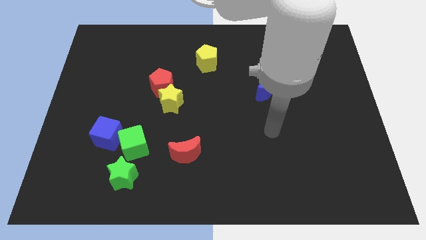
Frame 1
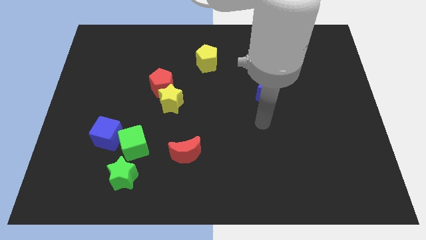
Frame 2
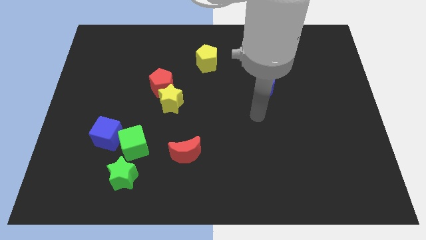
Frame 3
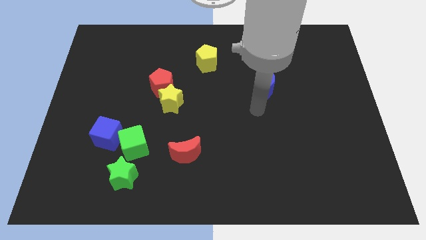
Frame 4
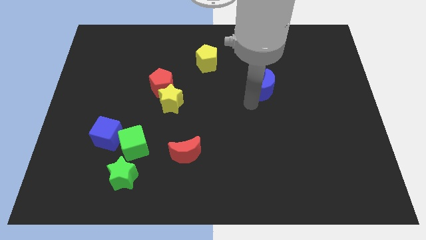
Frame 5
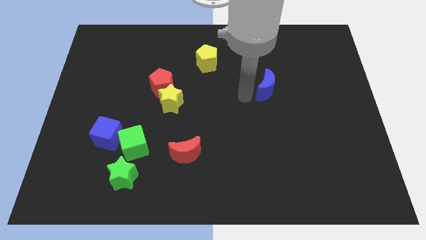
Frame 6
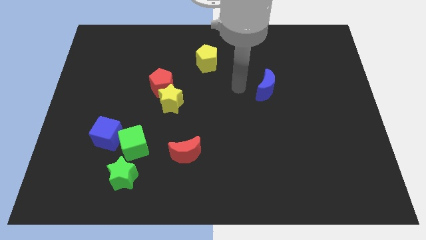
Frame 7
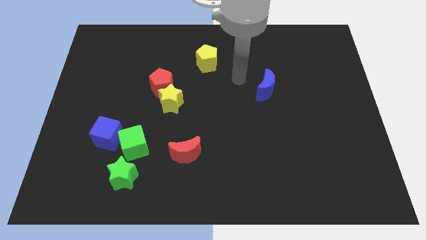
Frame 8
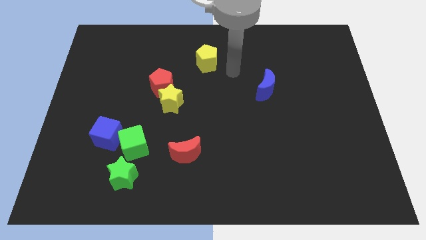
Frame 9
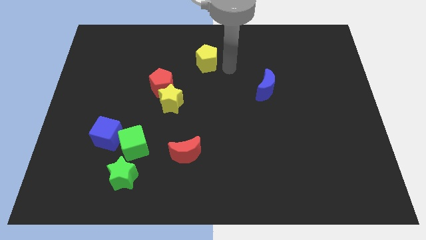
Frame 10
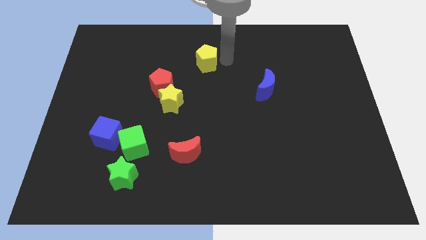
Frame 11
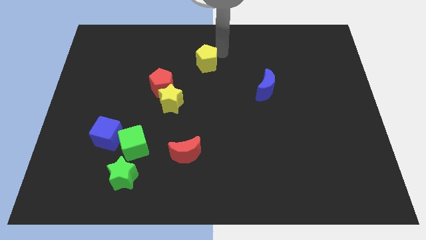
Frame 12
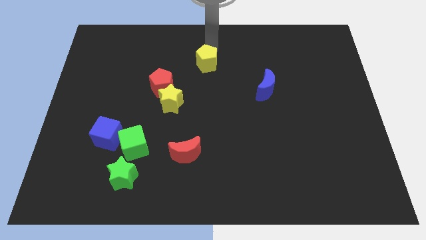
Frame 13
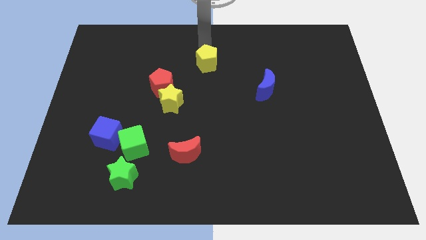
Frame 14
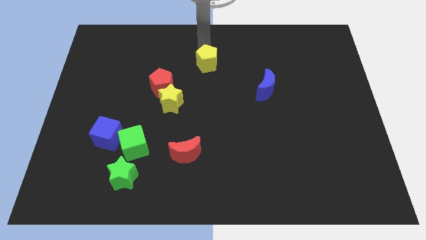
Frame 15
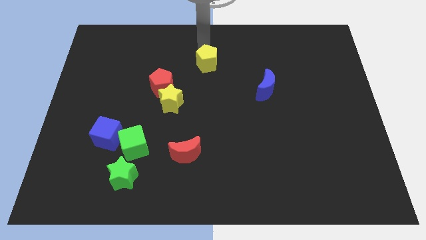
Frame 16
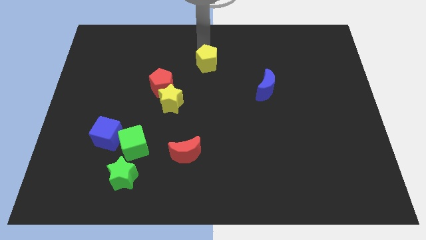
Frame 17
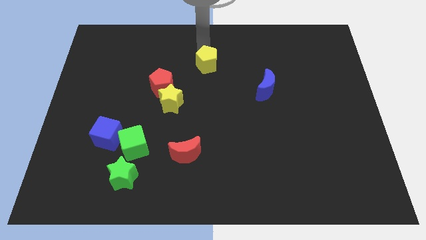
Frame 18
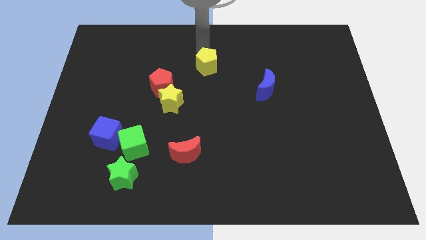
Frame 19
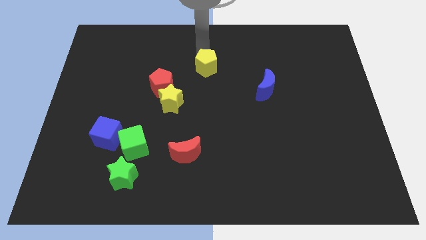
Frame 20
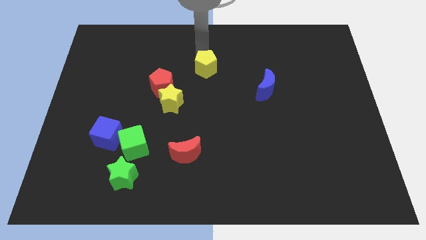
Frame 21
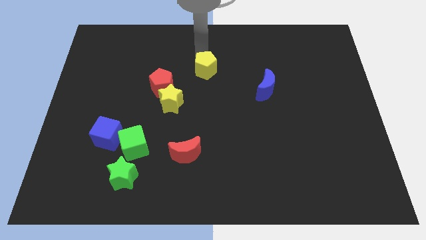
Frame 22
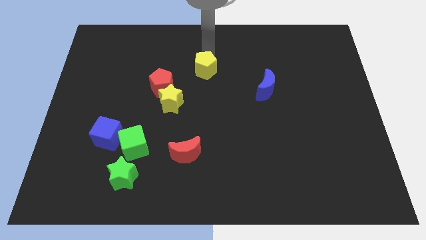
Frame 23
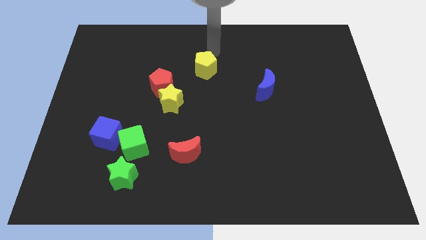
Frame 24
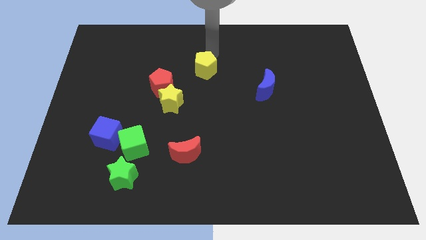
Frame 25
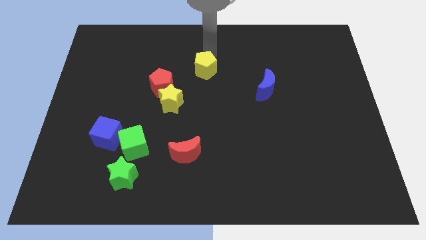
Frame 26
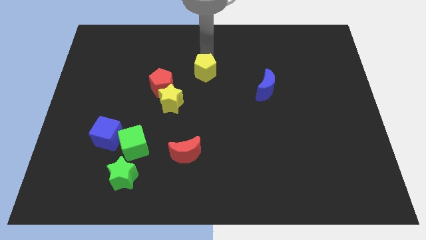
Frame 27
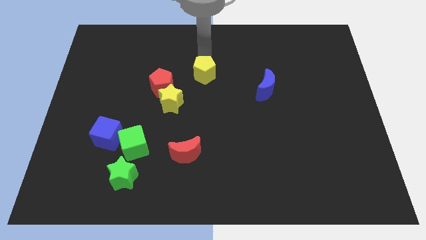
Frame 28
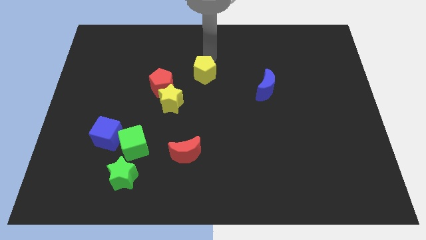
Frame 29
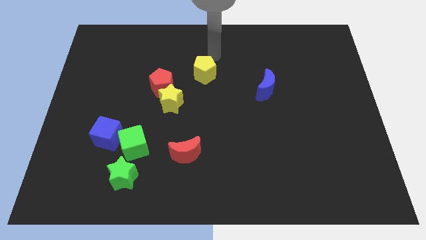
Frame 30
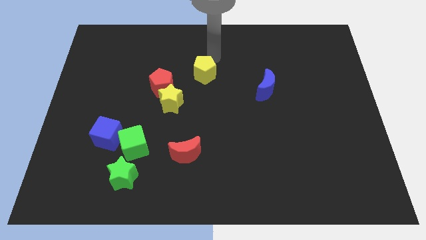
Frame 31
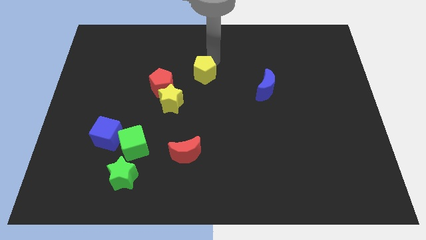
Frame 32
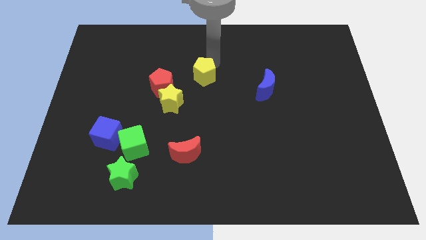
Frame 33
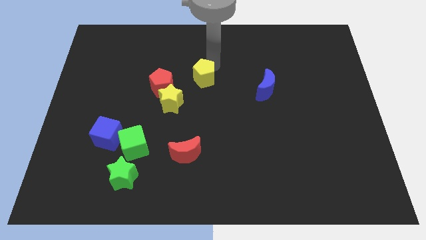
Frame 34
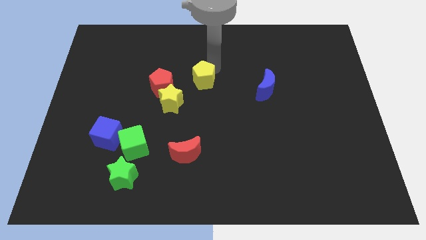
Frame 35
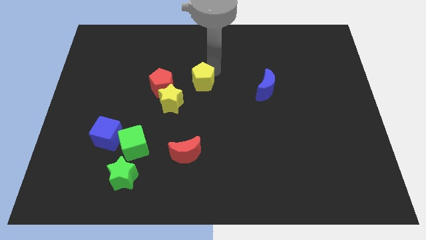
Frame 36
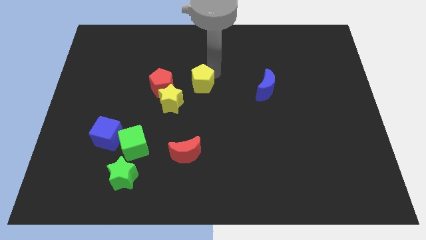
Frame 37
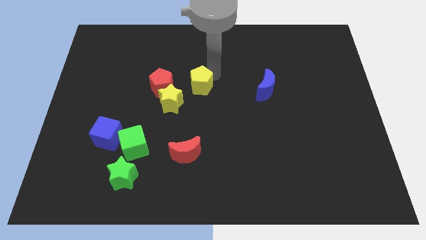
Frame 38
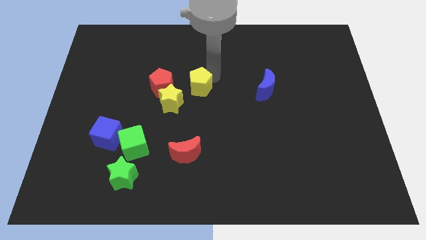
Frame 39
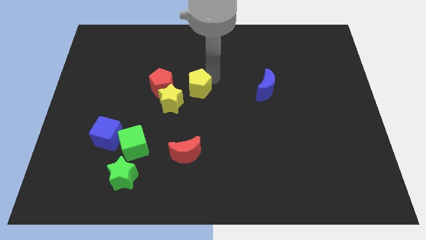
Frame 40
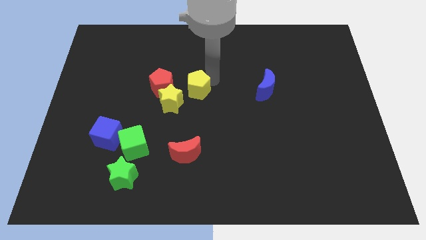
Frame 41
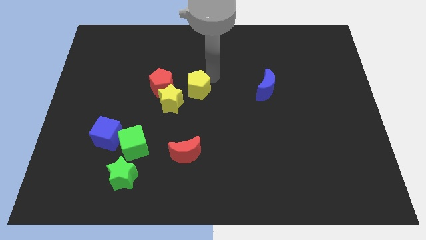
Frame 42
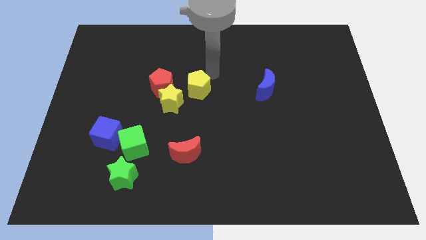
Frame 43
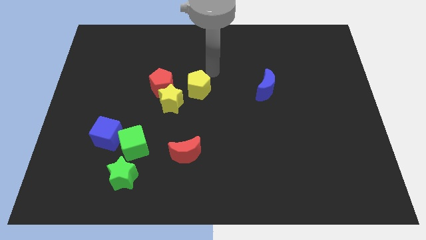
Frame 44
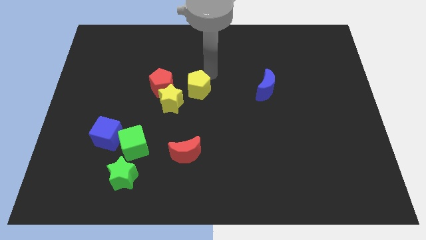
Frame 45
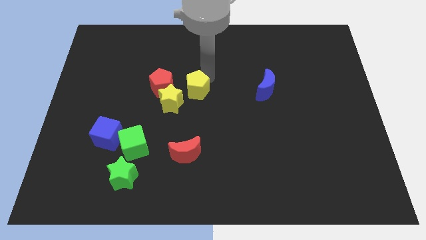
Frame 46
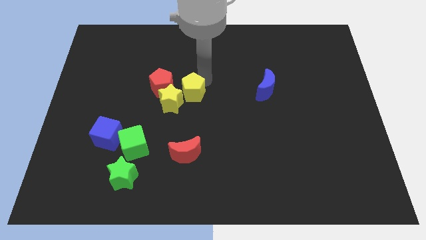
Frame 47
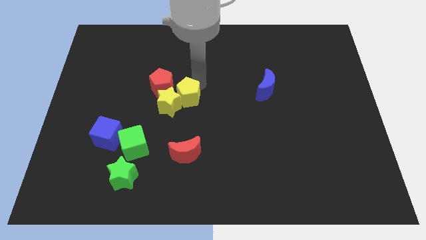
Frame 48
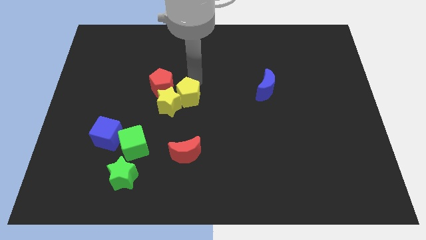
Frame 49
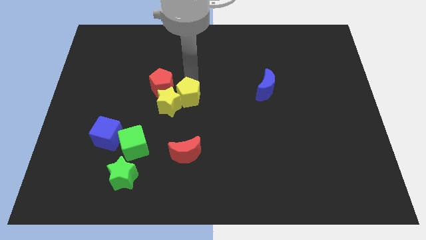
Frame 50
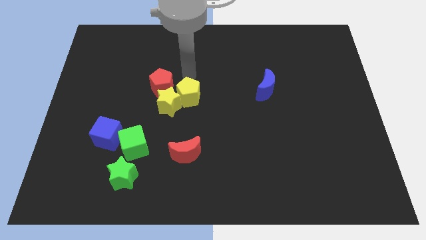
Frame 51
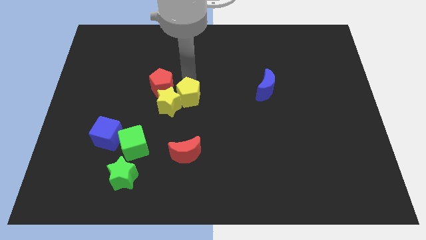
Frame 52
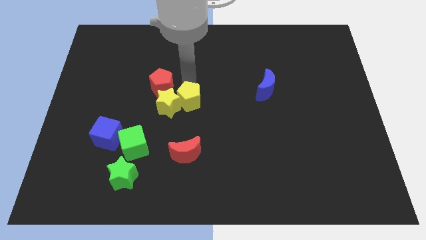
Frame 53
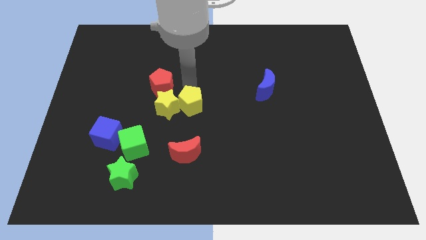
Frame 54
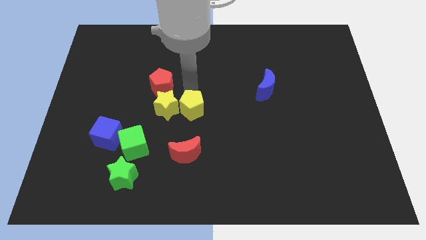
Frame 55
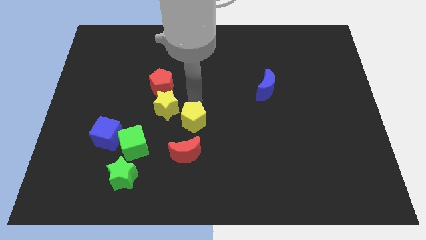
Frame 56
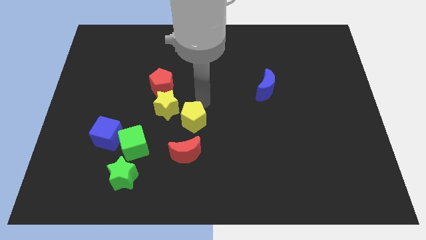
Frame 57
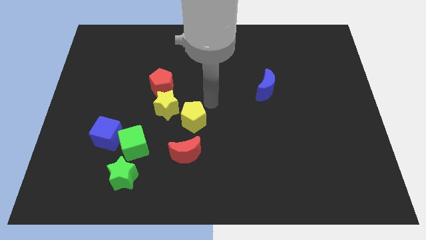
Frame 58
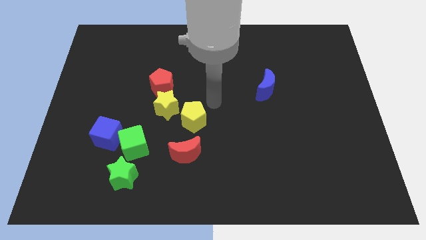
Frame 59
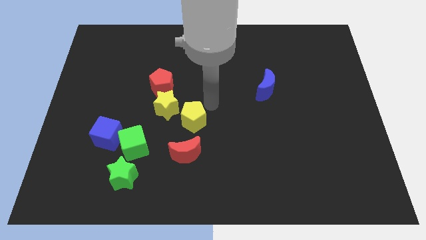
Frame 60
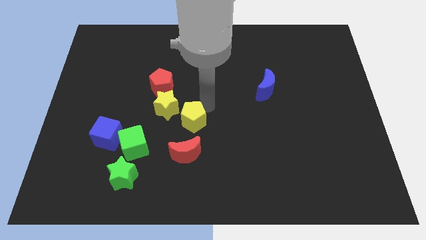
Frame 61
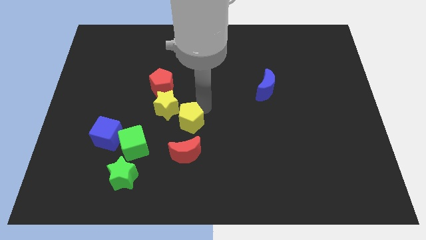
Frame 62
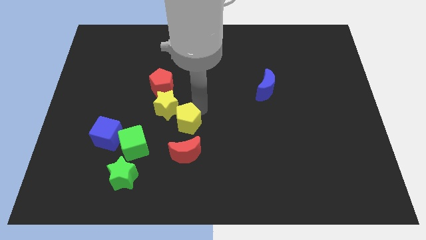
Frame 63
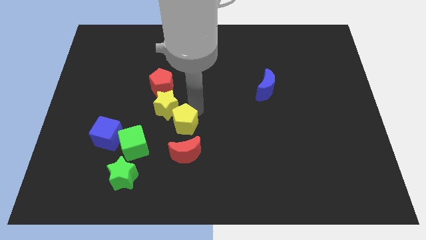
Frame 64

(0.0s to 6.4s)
push the yellow pentagon below the yellow star

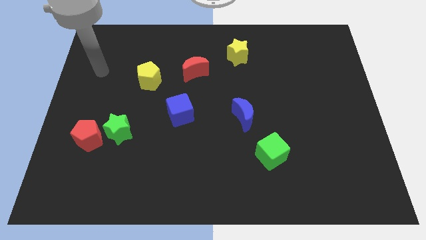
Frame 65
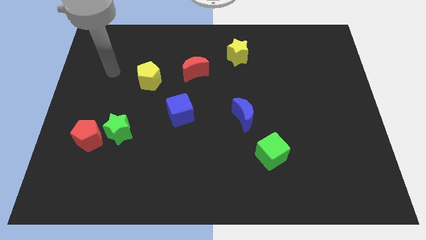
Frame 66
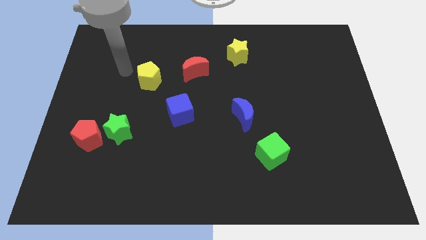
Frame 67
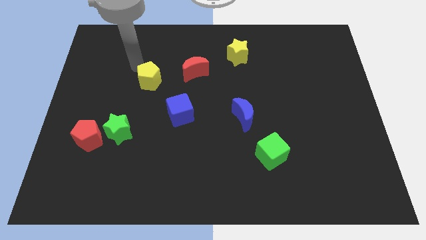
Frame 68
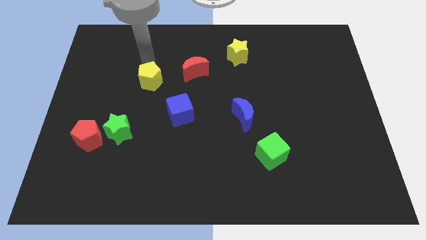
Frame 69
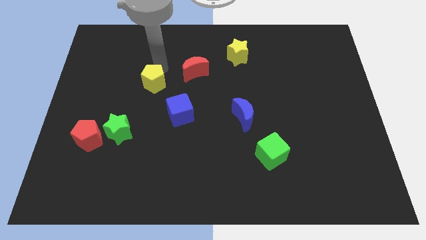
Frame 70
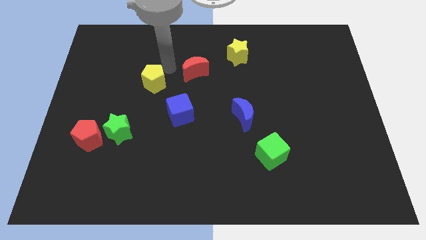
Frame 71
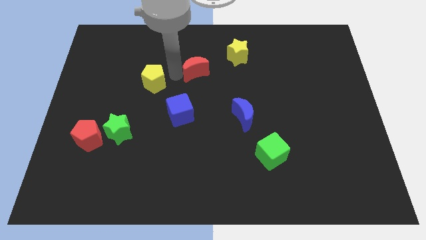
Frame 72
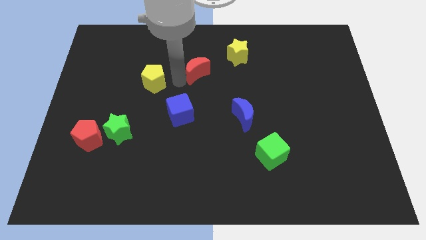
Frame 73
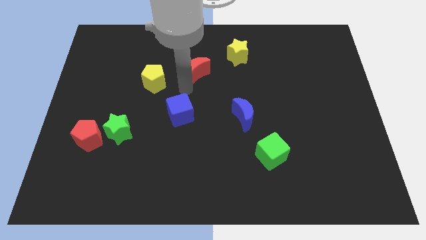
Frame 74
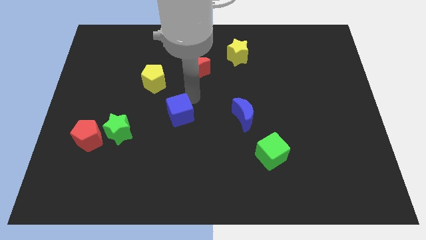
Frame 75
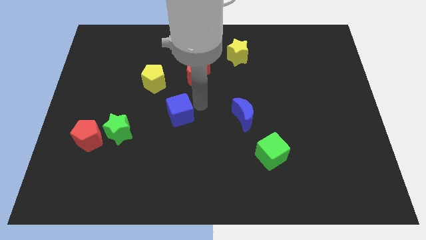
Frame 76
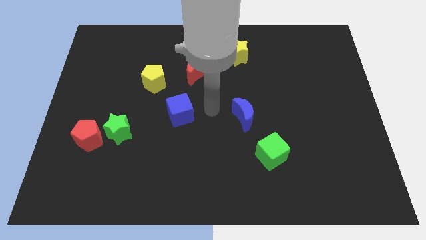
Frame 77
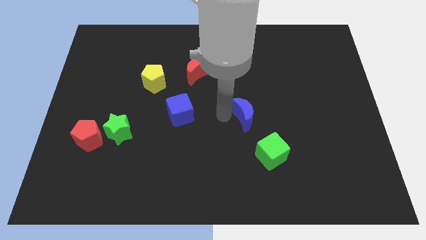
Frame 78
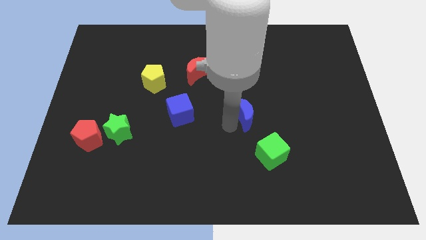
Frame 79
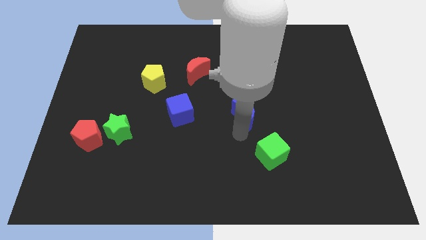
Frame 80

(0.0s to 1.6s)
put the green cube below the blue moon
